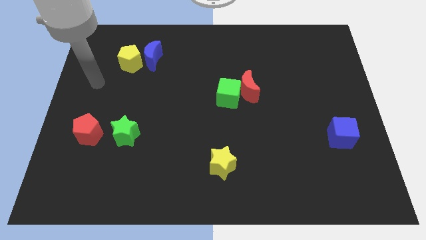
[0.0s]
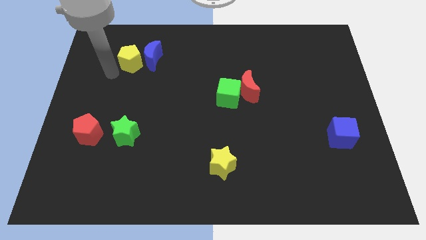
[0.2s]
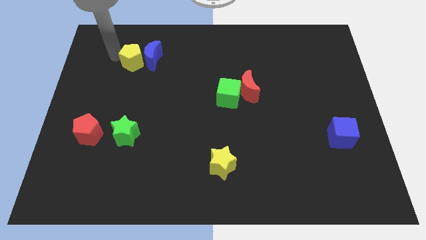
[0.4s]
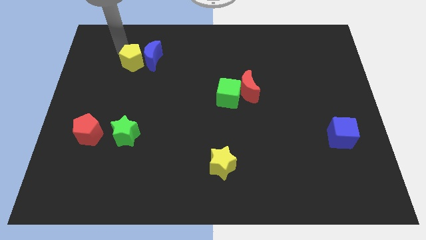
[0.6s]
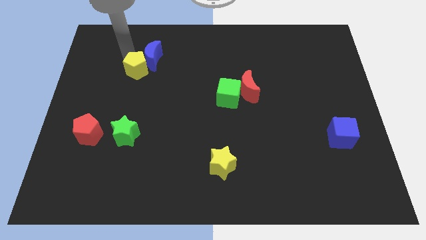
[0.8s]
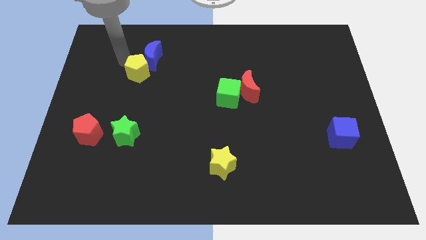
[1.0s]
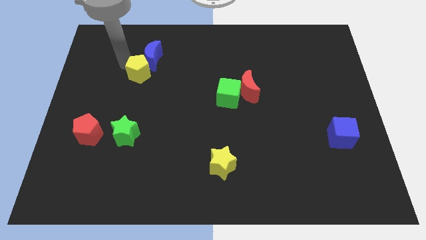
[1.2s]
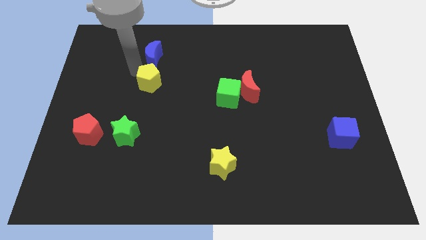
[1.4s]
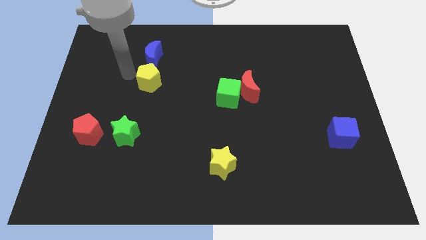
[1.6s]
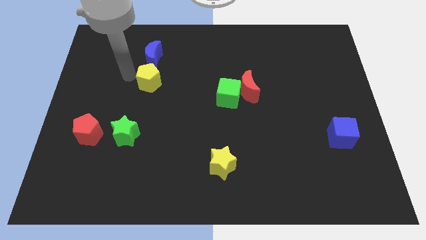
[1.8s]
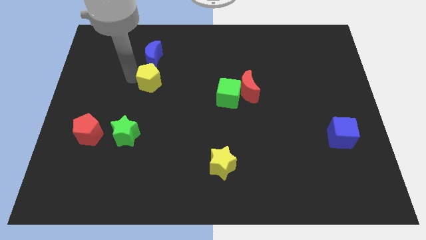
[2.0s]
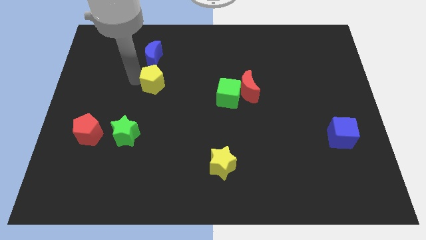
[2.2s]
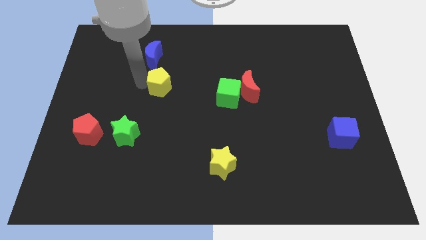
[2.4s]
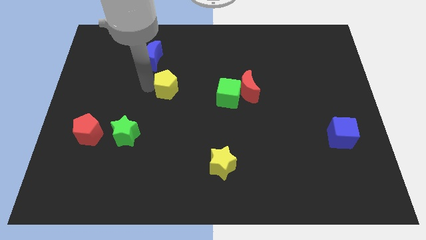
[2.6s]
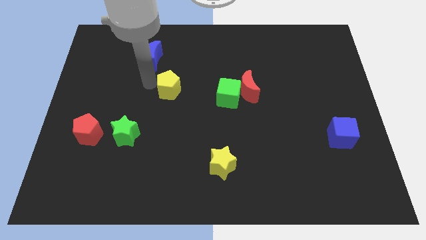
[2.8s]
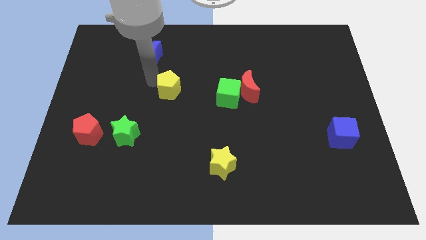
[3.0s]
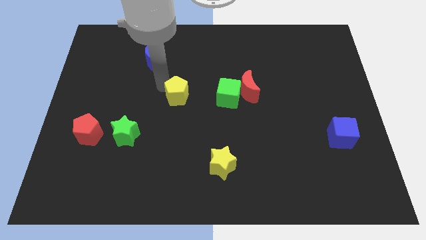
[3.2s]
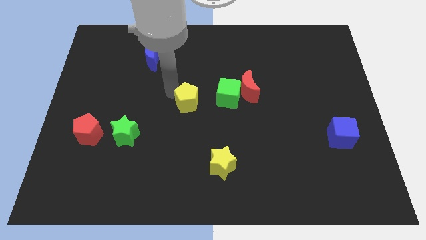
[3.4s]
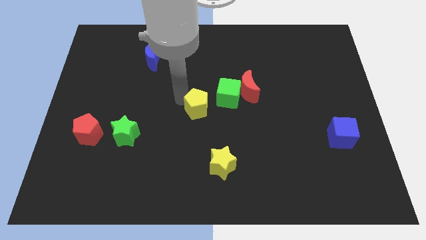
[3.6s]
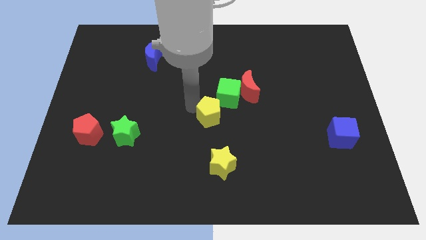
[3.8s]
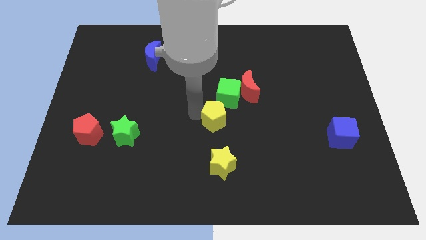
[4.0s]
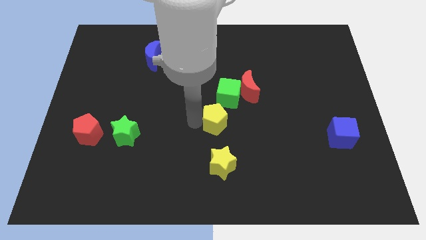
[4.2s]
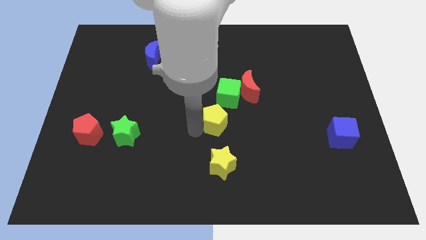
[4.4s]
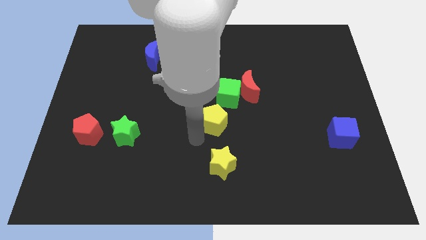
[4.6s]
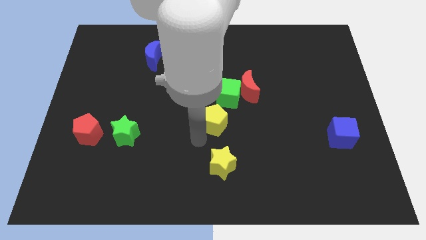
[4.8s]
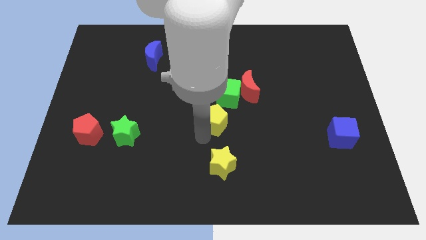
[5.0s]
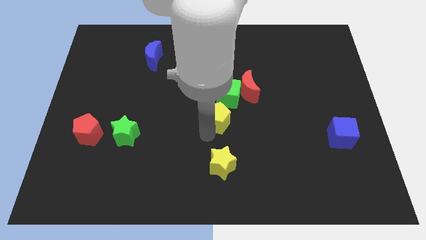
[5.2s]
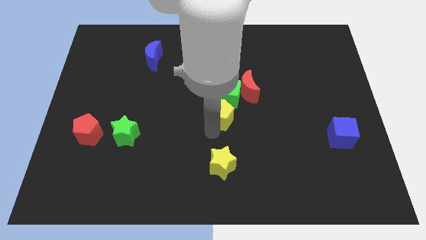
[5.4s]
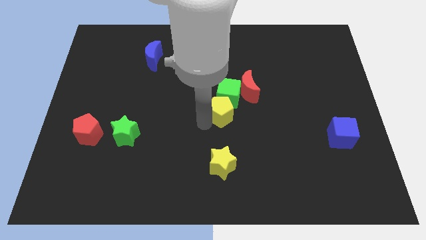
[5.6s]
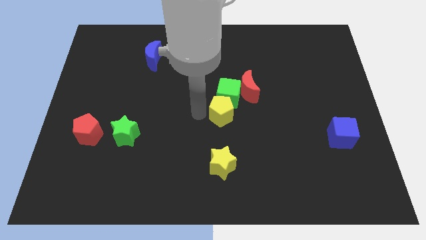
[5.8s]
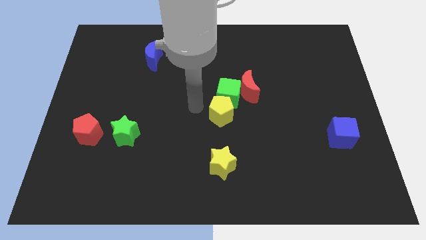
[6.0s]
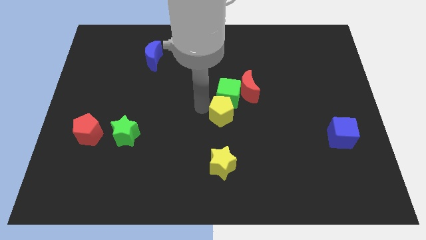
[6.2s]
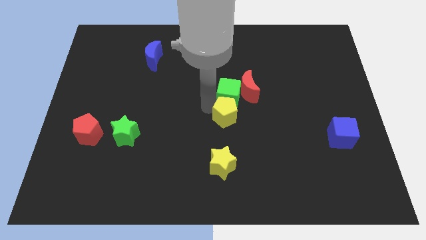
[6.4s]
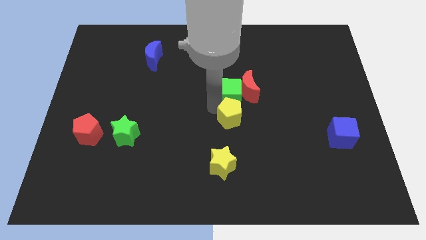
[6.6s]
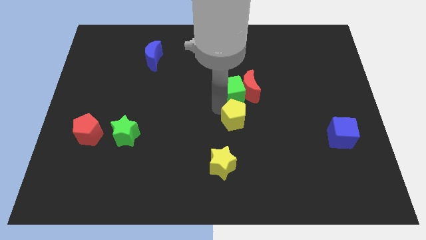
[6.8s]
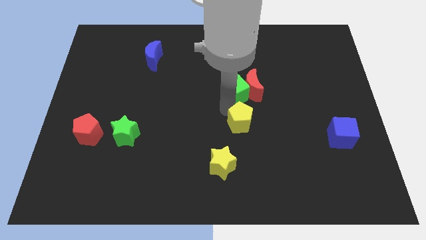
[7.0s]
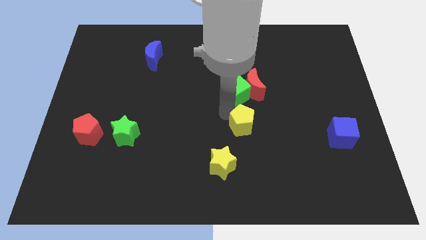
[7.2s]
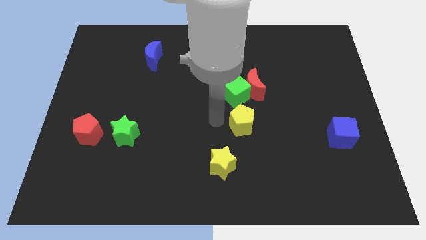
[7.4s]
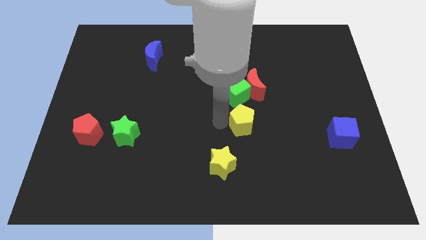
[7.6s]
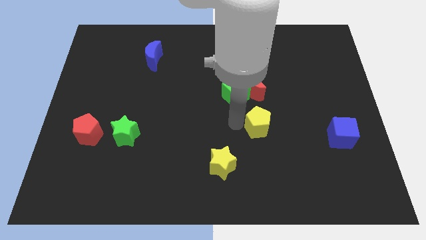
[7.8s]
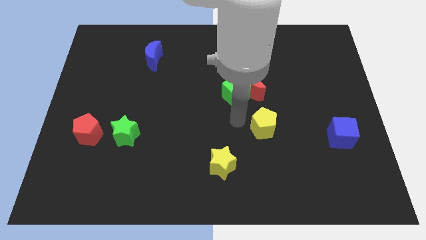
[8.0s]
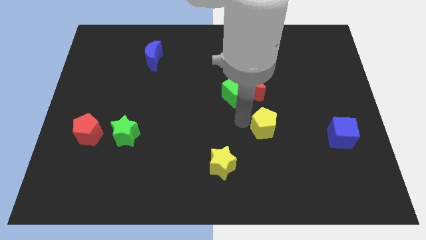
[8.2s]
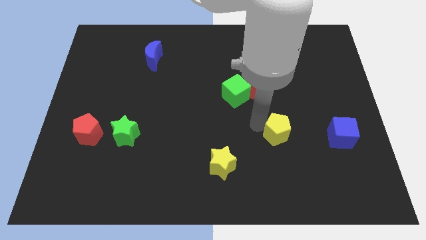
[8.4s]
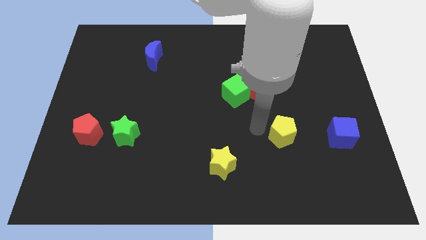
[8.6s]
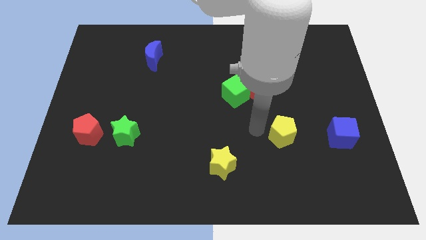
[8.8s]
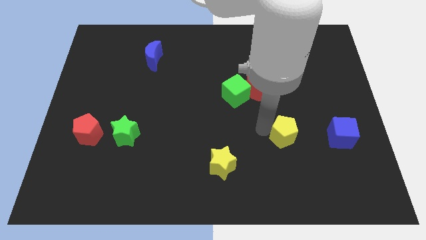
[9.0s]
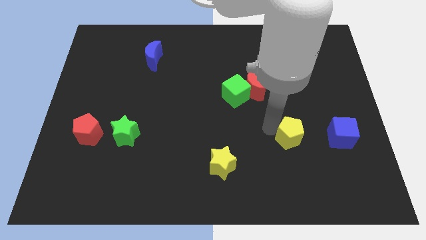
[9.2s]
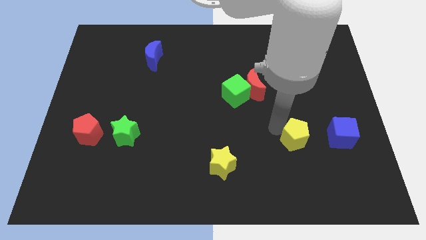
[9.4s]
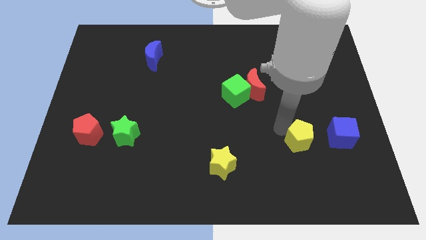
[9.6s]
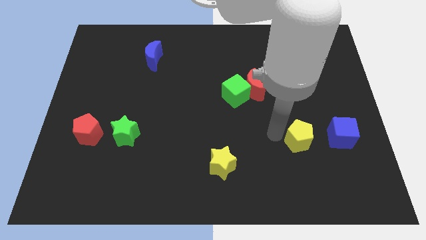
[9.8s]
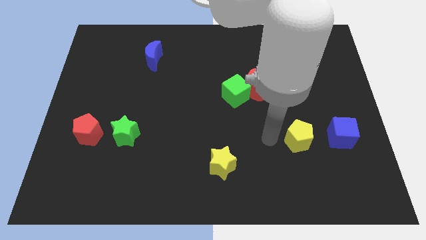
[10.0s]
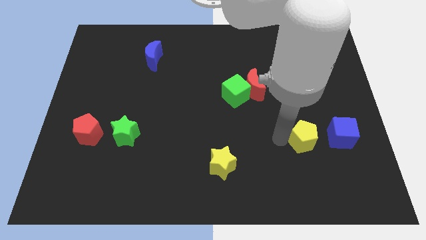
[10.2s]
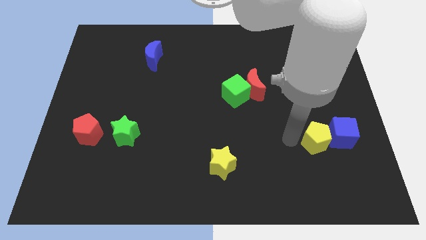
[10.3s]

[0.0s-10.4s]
push the yellow pentagon to the blue cube

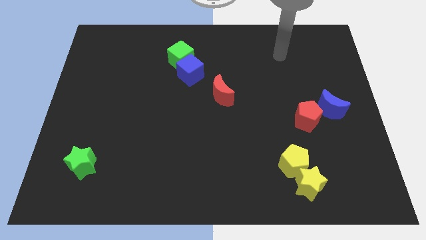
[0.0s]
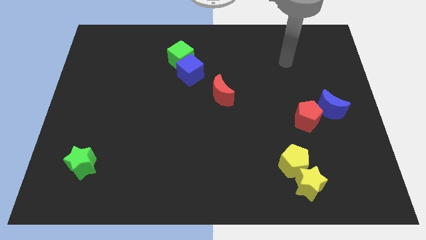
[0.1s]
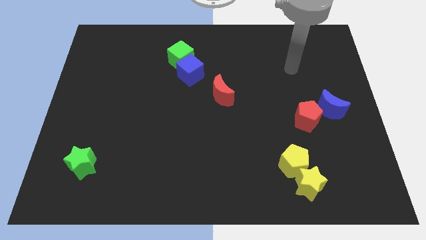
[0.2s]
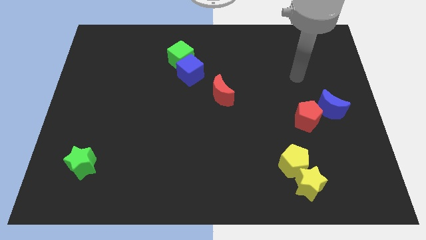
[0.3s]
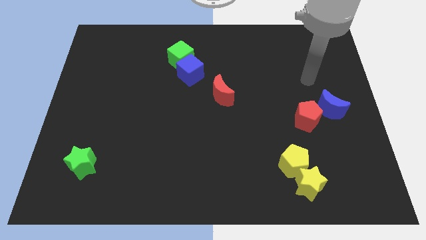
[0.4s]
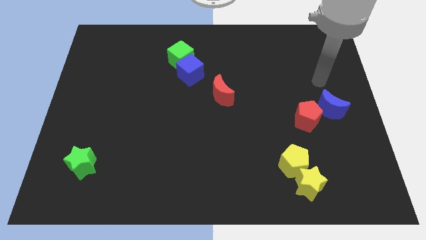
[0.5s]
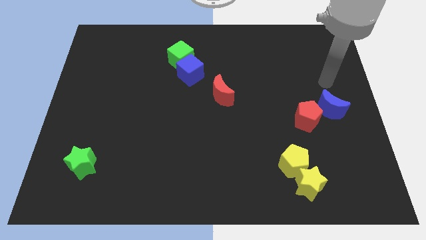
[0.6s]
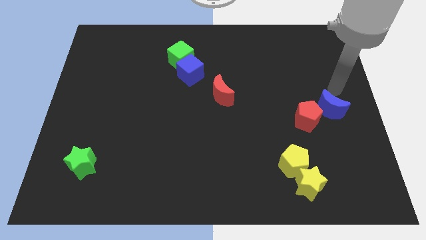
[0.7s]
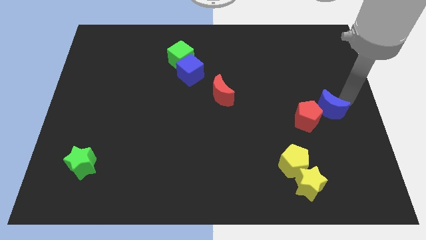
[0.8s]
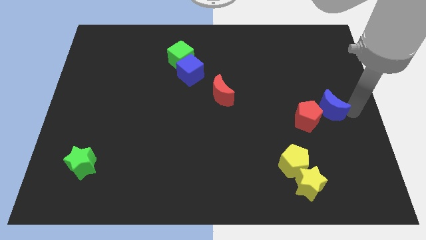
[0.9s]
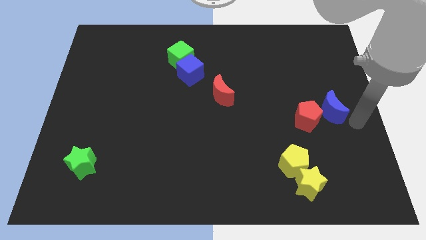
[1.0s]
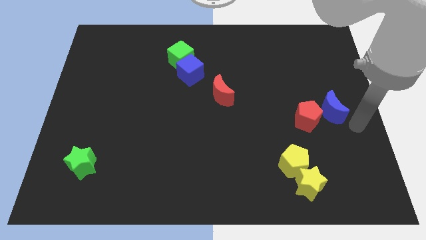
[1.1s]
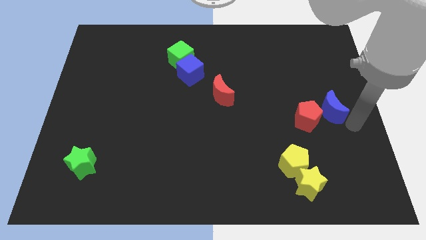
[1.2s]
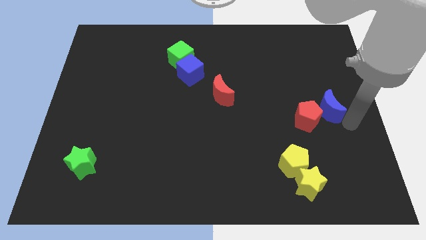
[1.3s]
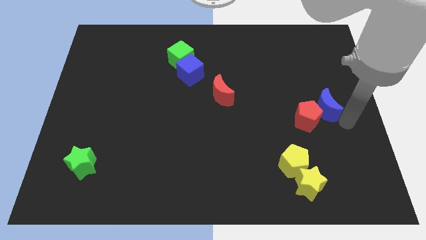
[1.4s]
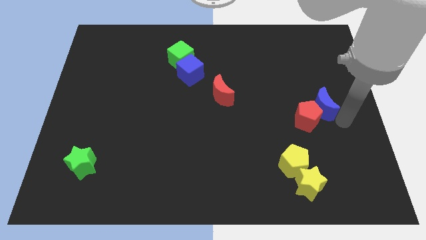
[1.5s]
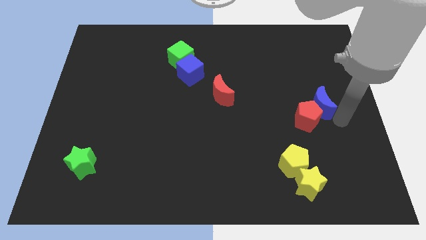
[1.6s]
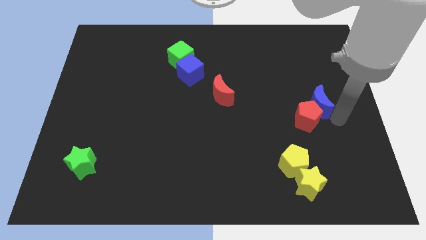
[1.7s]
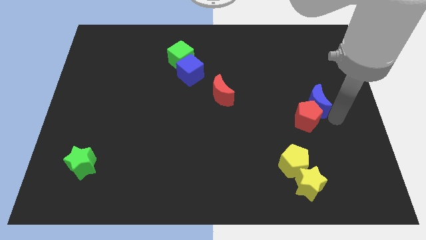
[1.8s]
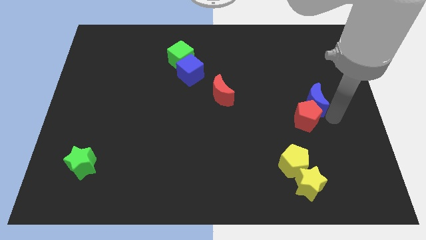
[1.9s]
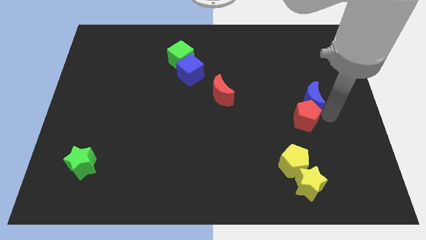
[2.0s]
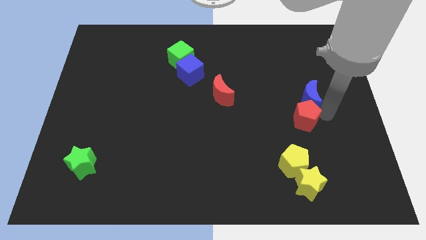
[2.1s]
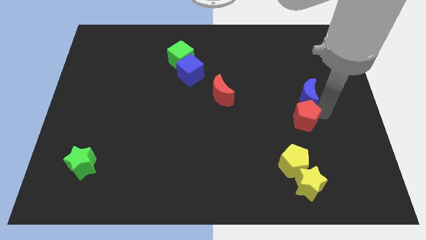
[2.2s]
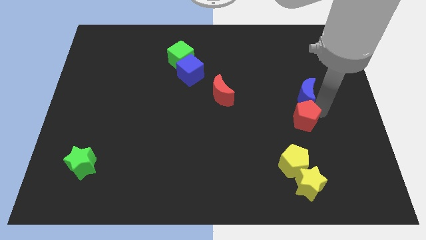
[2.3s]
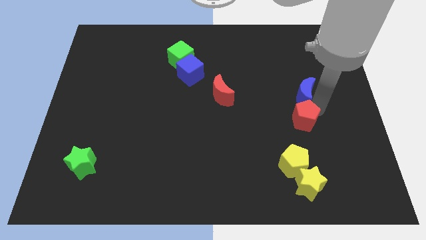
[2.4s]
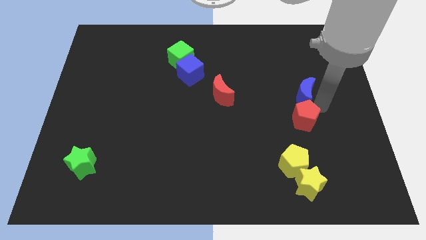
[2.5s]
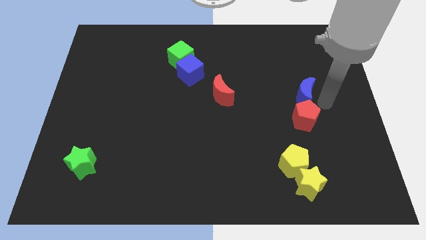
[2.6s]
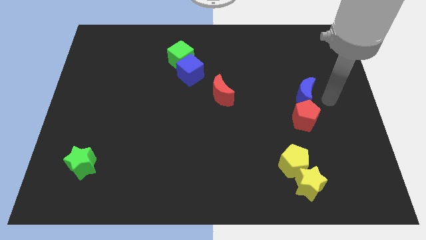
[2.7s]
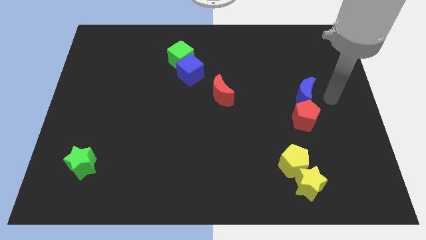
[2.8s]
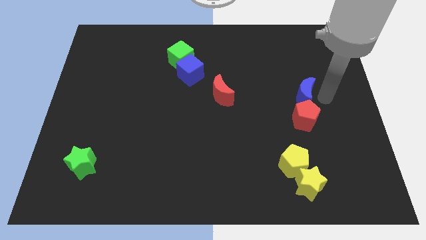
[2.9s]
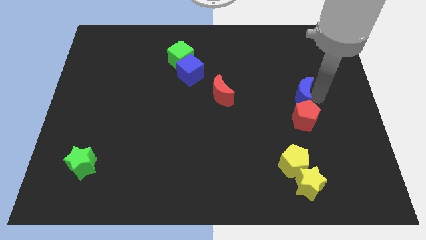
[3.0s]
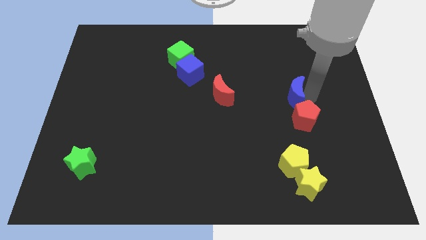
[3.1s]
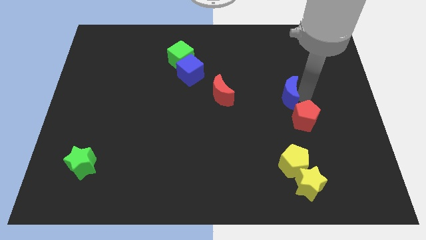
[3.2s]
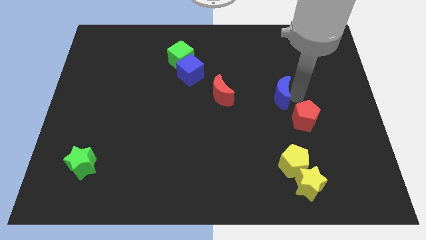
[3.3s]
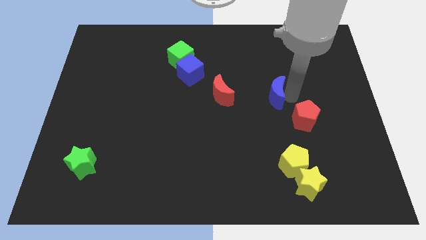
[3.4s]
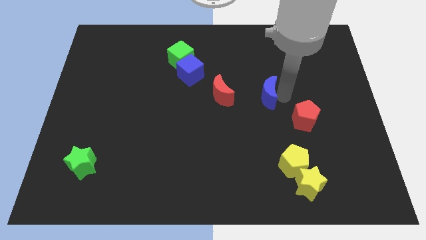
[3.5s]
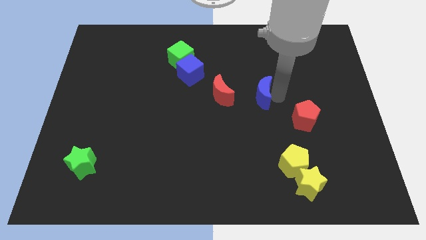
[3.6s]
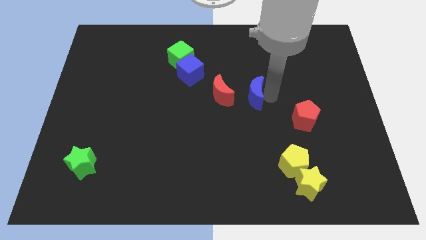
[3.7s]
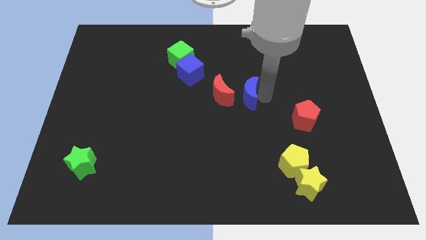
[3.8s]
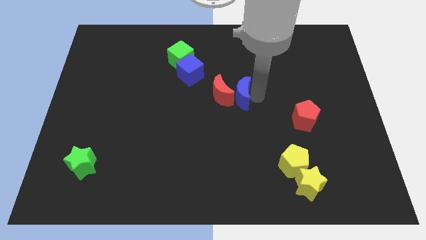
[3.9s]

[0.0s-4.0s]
move the blue moon to the red moon
